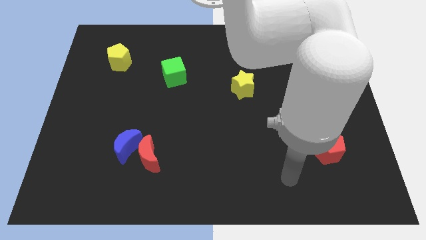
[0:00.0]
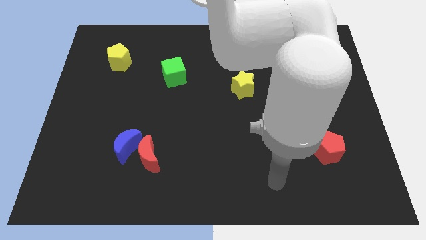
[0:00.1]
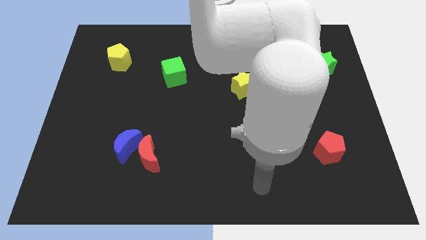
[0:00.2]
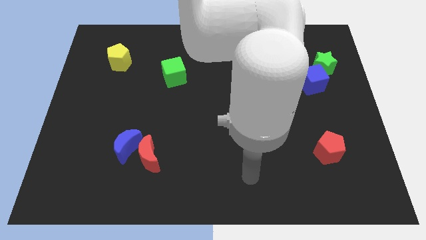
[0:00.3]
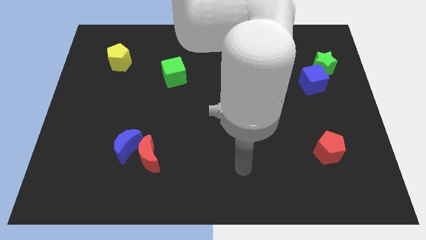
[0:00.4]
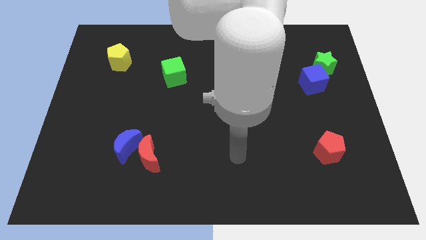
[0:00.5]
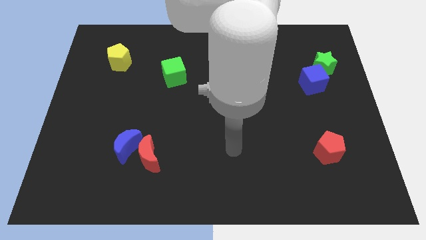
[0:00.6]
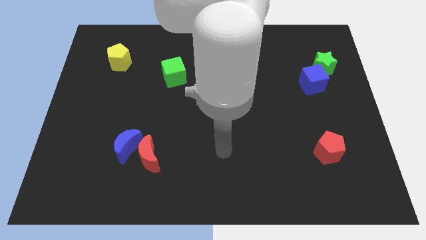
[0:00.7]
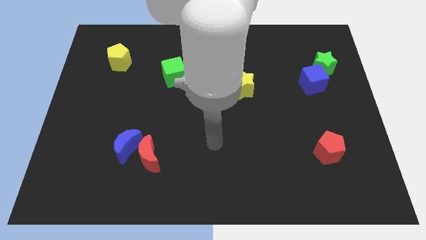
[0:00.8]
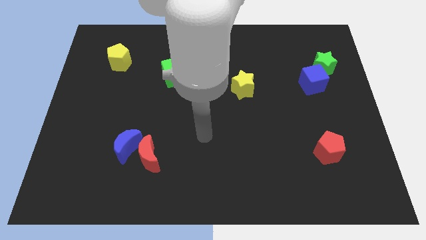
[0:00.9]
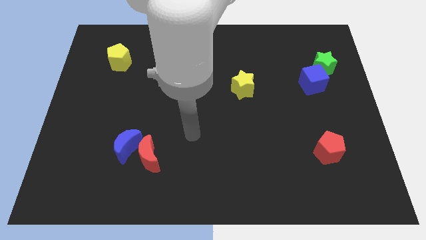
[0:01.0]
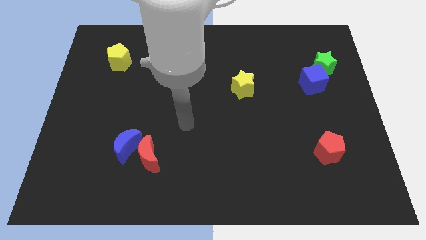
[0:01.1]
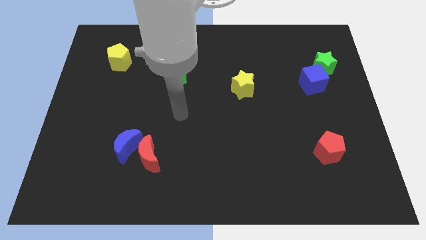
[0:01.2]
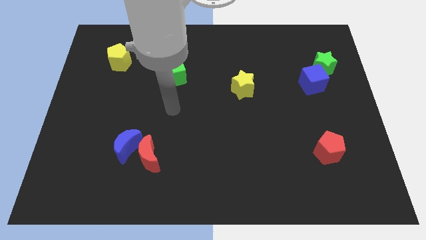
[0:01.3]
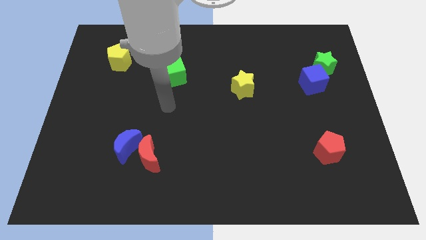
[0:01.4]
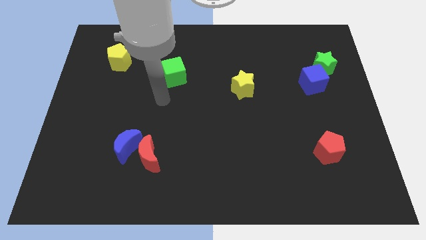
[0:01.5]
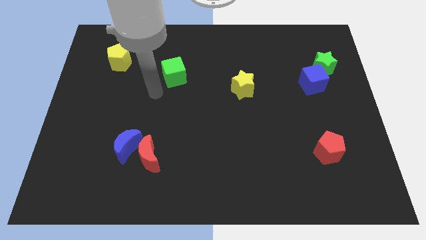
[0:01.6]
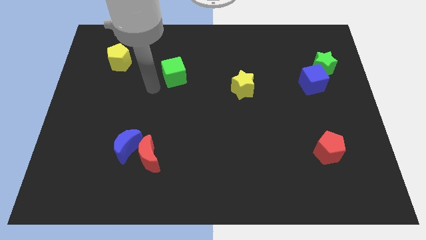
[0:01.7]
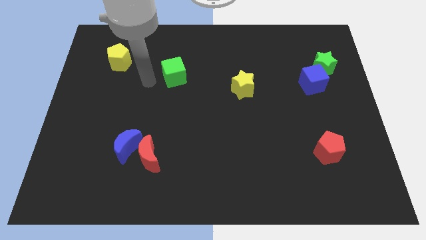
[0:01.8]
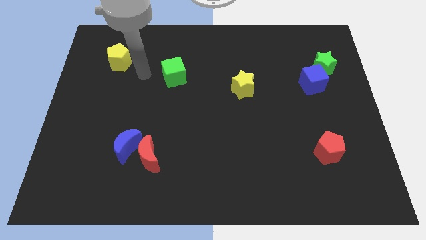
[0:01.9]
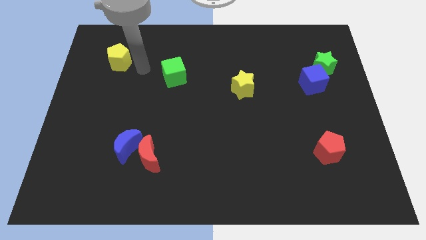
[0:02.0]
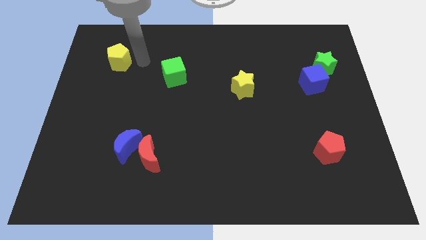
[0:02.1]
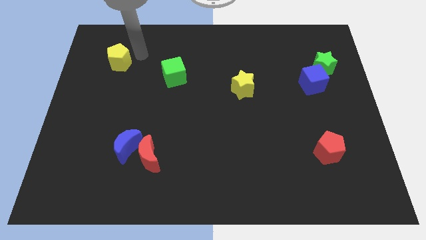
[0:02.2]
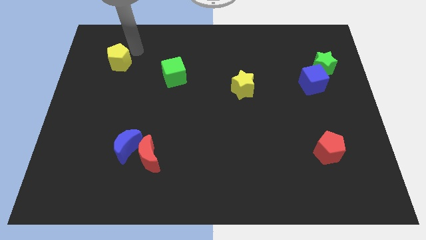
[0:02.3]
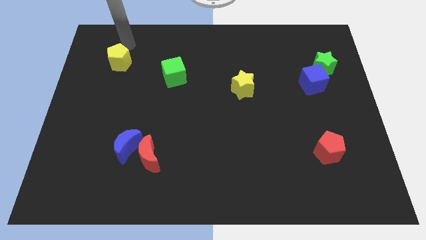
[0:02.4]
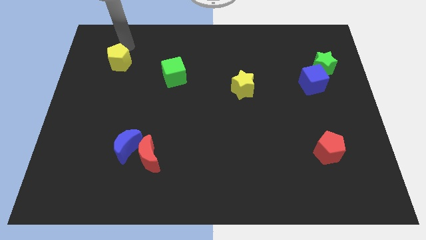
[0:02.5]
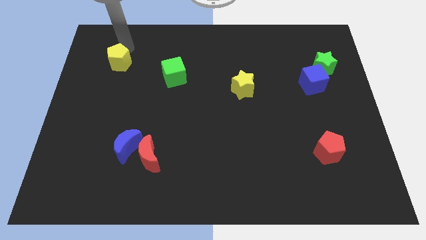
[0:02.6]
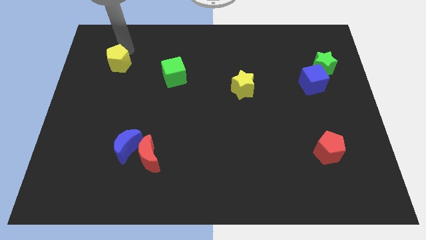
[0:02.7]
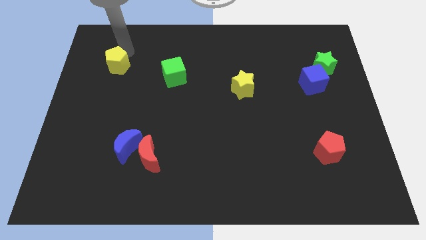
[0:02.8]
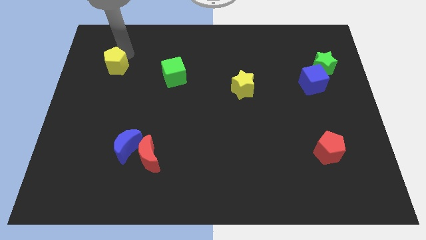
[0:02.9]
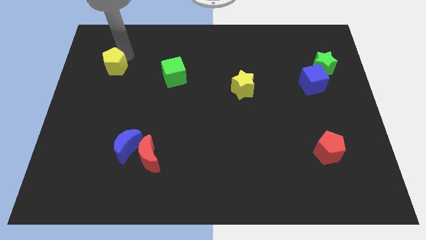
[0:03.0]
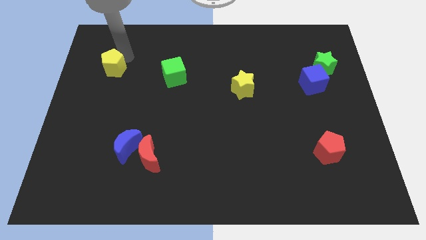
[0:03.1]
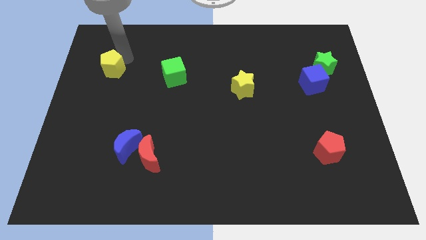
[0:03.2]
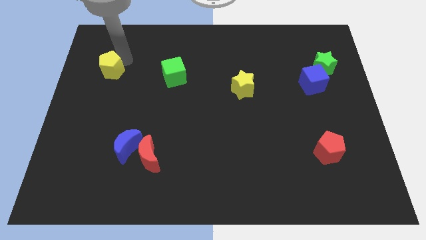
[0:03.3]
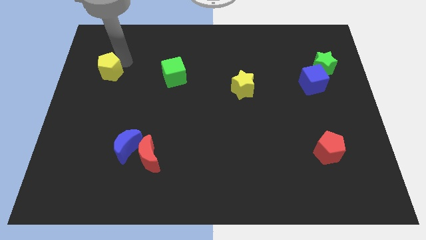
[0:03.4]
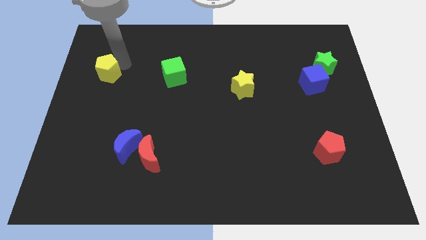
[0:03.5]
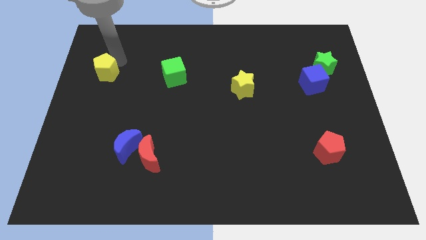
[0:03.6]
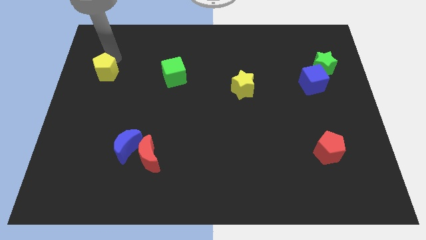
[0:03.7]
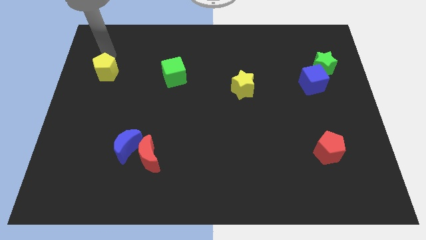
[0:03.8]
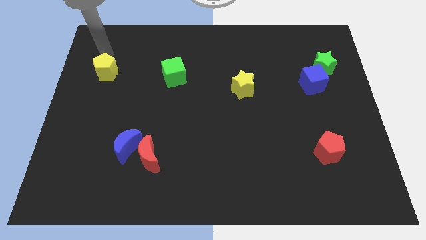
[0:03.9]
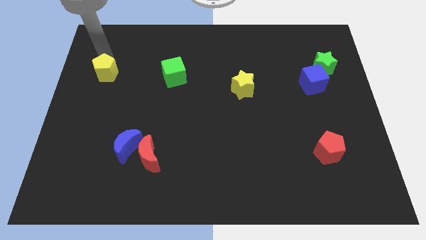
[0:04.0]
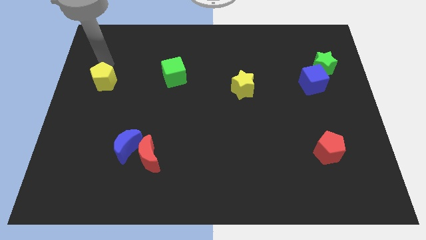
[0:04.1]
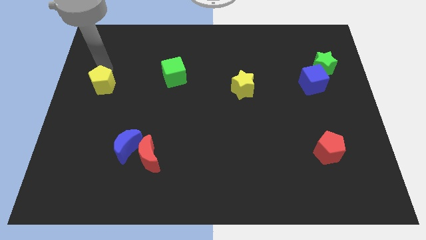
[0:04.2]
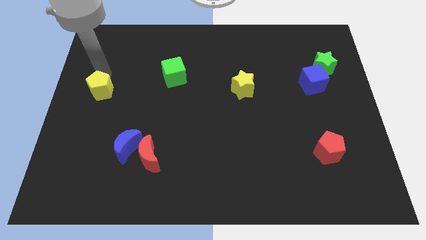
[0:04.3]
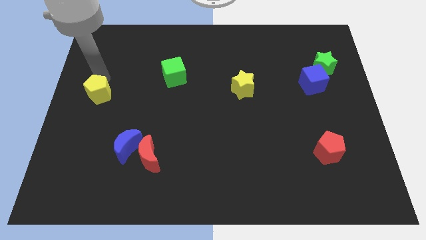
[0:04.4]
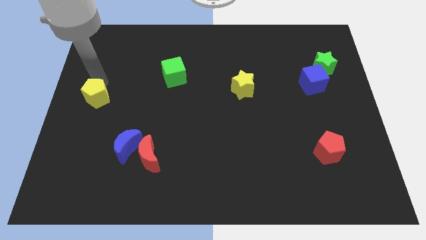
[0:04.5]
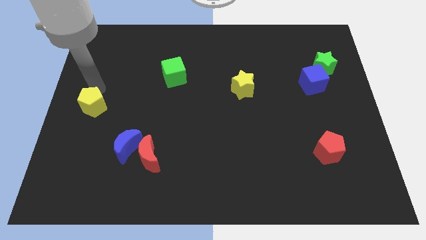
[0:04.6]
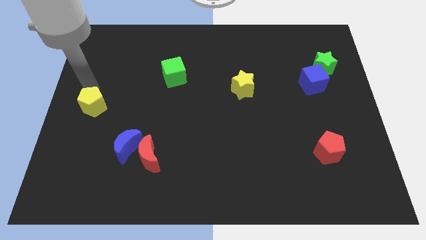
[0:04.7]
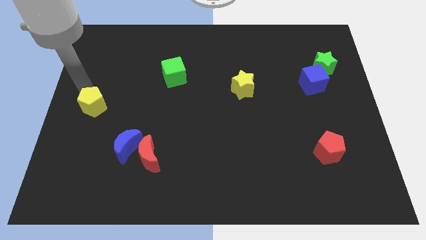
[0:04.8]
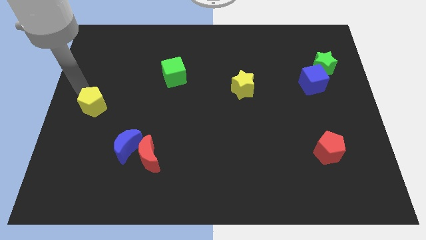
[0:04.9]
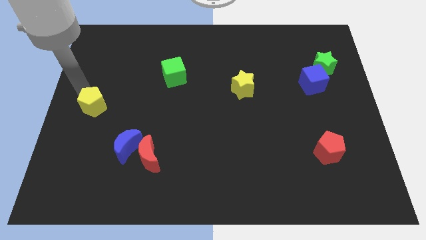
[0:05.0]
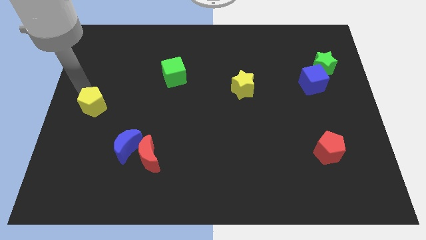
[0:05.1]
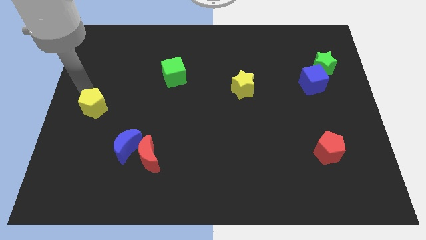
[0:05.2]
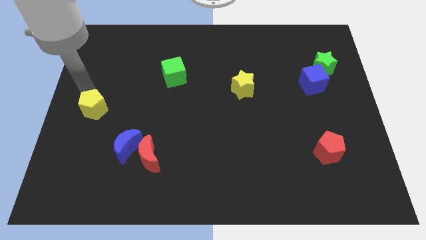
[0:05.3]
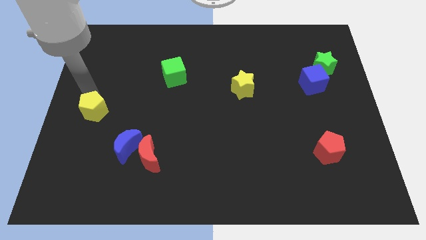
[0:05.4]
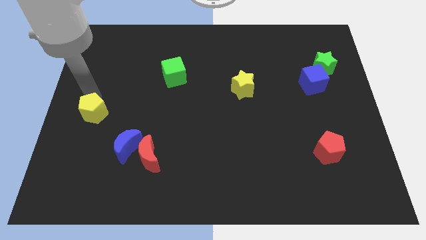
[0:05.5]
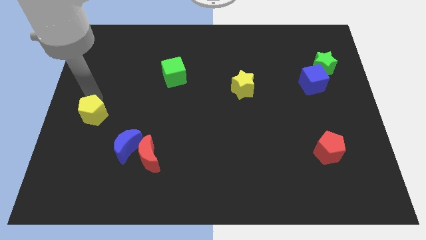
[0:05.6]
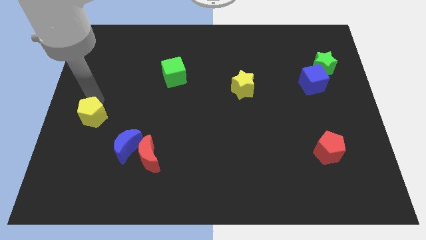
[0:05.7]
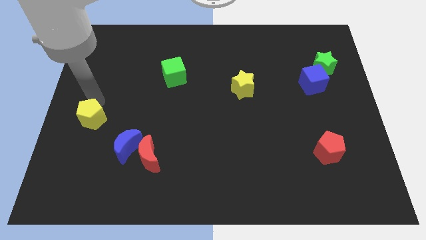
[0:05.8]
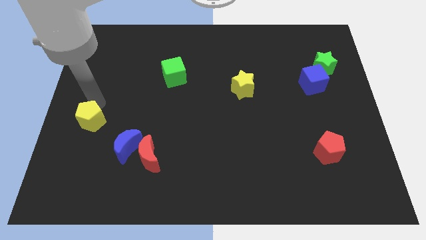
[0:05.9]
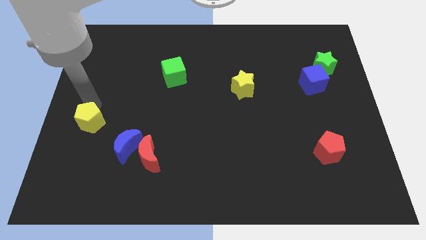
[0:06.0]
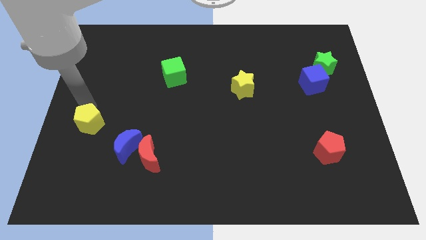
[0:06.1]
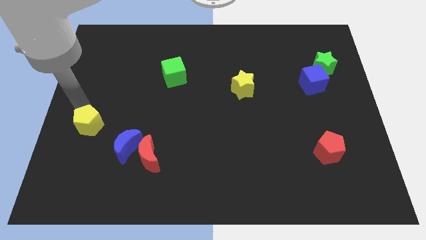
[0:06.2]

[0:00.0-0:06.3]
move the yellow pentagon down

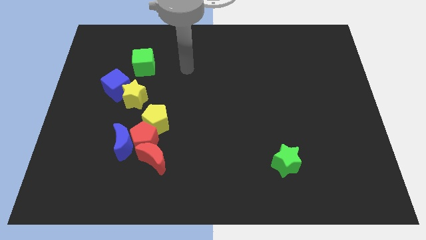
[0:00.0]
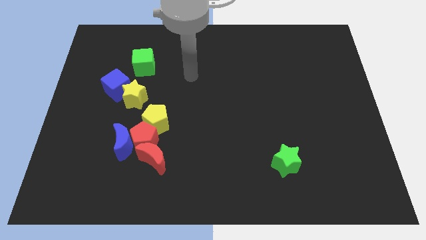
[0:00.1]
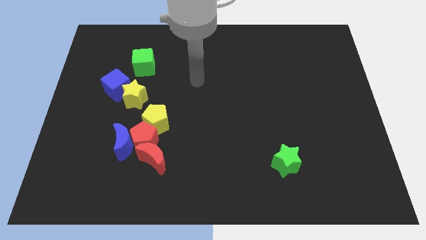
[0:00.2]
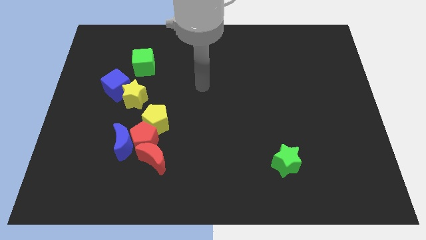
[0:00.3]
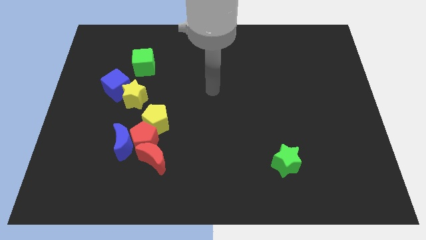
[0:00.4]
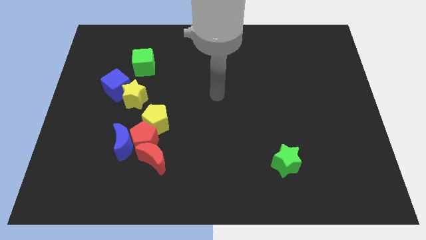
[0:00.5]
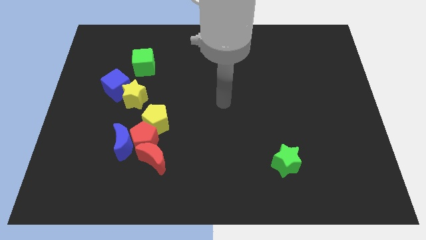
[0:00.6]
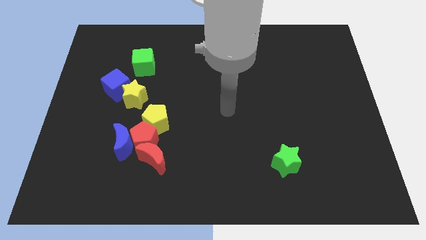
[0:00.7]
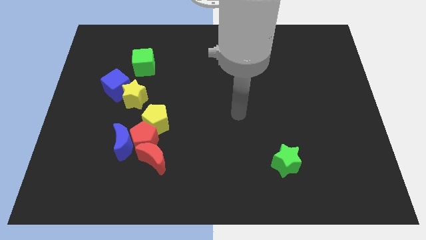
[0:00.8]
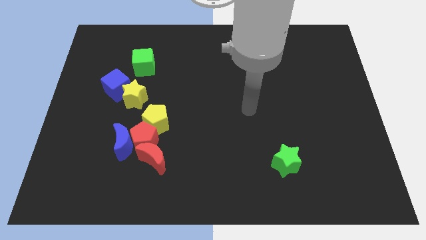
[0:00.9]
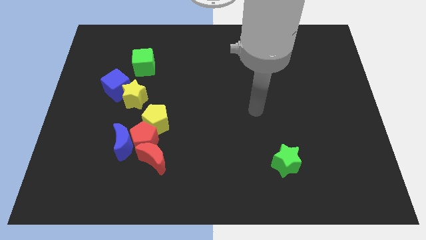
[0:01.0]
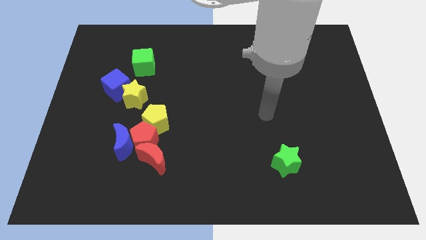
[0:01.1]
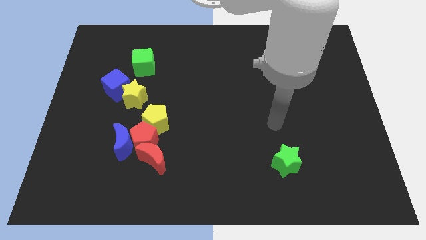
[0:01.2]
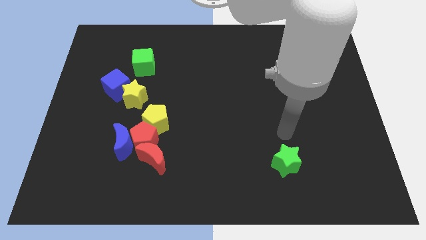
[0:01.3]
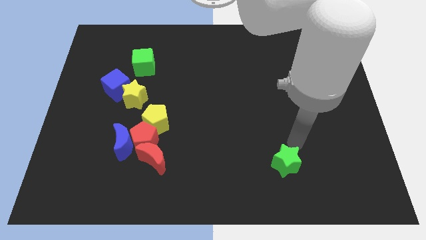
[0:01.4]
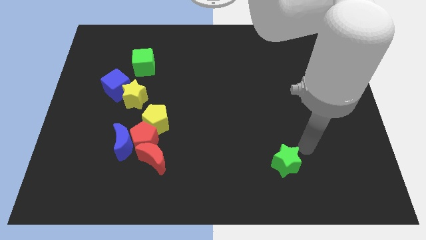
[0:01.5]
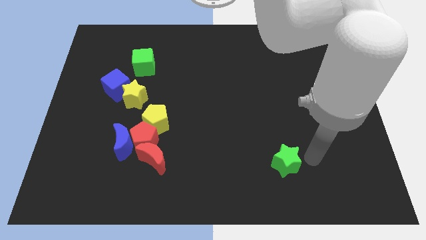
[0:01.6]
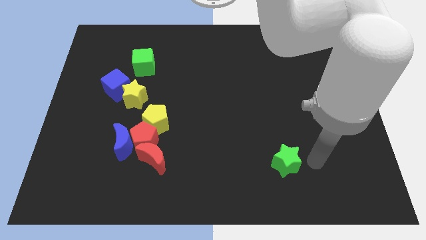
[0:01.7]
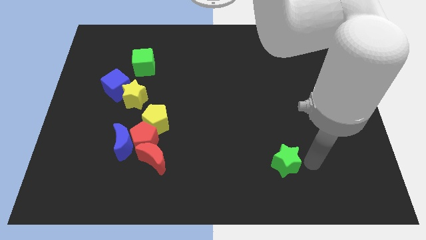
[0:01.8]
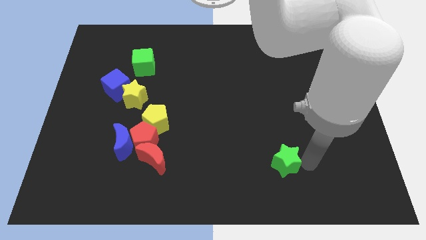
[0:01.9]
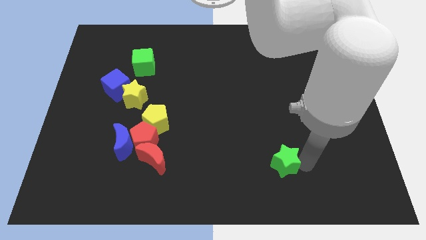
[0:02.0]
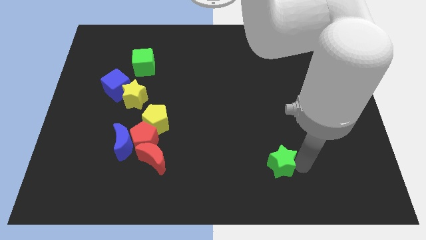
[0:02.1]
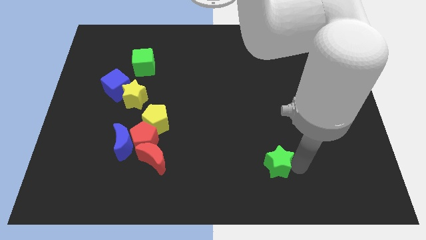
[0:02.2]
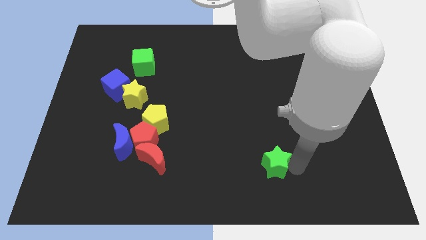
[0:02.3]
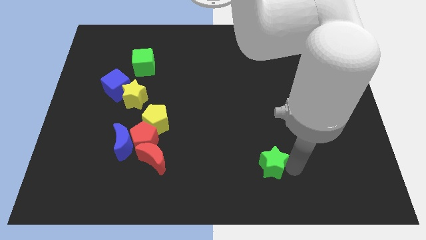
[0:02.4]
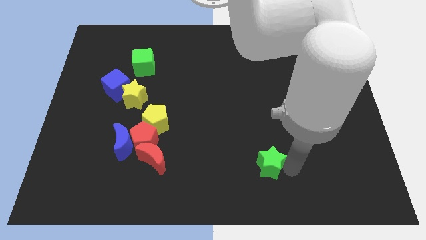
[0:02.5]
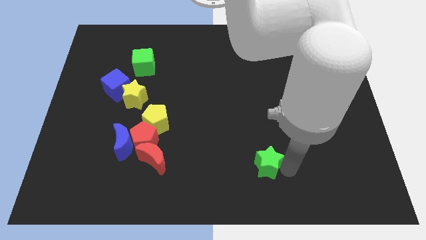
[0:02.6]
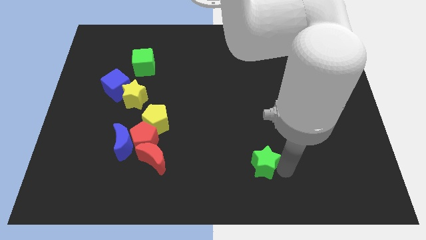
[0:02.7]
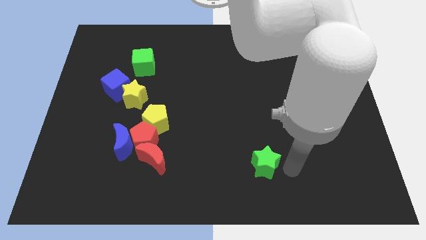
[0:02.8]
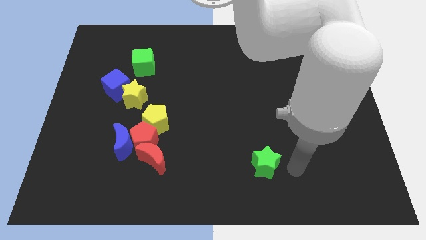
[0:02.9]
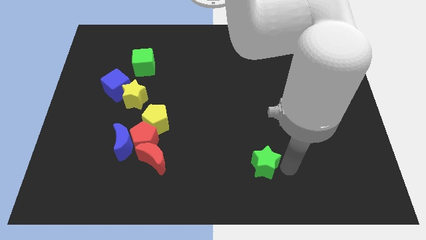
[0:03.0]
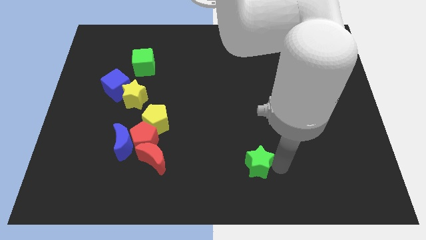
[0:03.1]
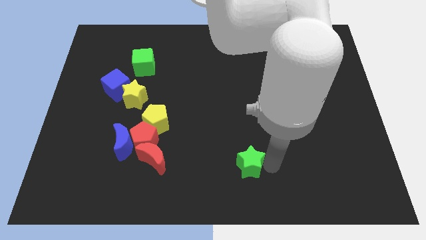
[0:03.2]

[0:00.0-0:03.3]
slightly move the green star left
